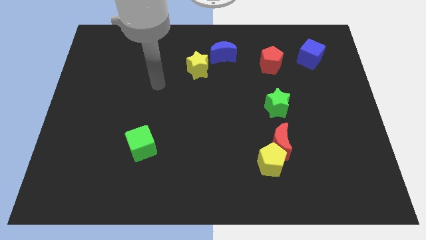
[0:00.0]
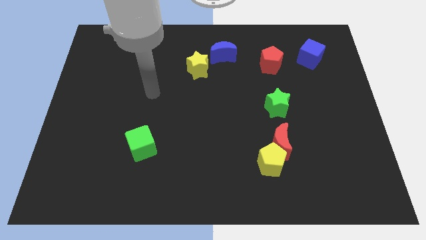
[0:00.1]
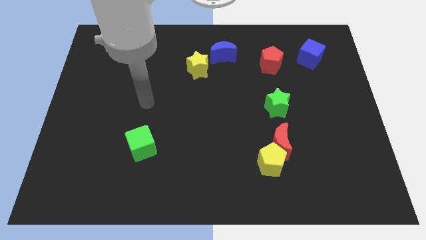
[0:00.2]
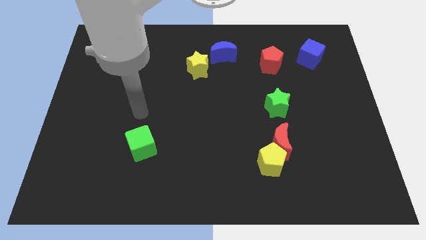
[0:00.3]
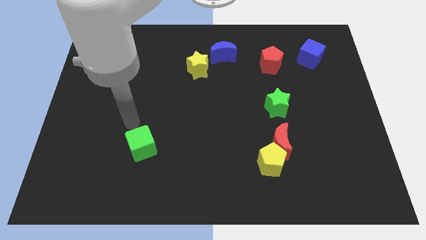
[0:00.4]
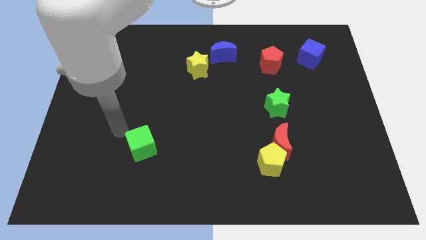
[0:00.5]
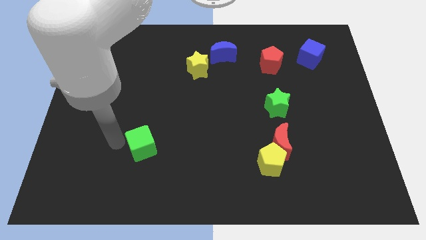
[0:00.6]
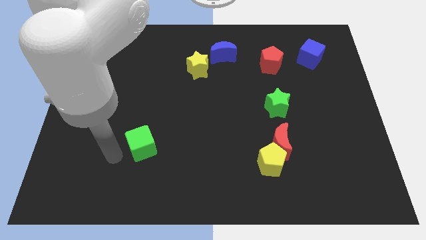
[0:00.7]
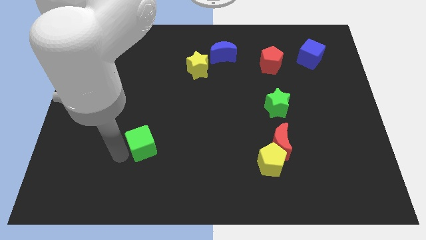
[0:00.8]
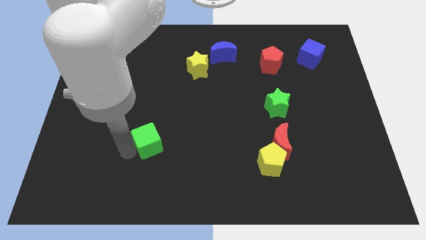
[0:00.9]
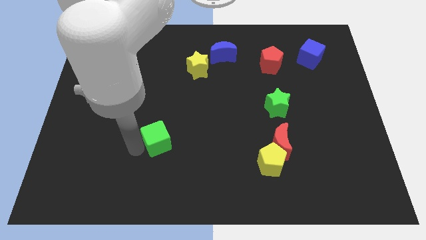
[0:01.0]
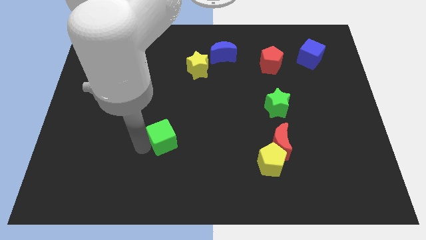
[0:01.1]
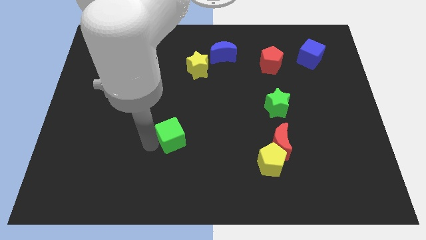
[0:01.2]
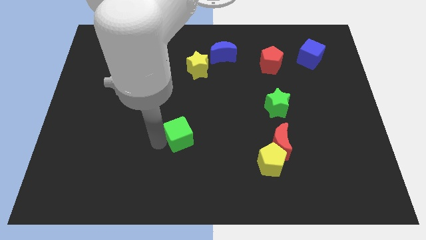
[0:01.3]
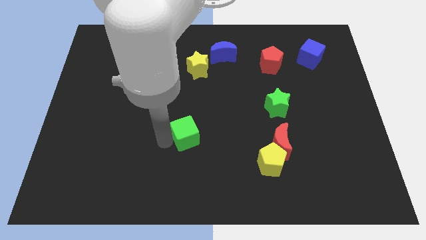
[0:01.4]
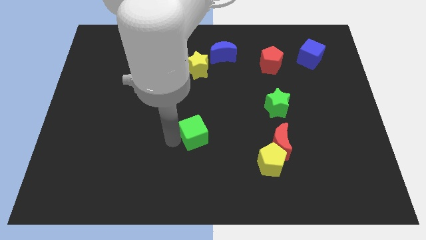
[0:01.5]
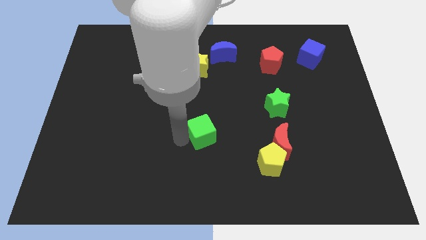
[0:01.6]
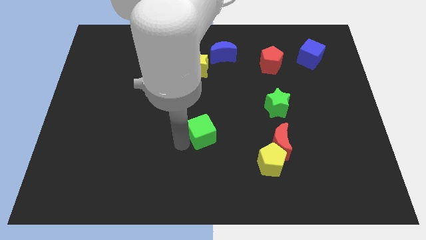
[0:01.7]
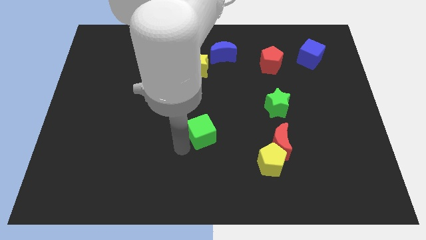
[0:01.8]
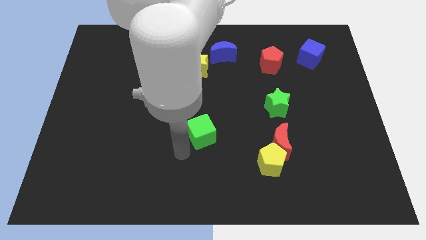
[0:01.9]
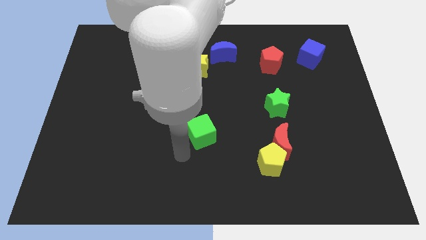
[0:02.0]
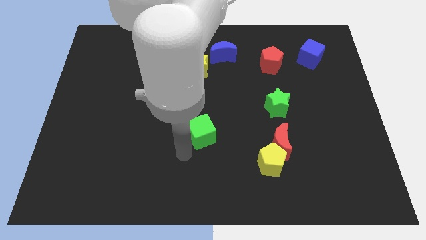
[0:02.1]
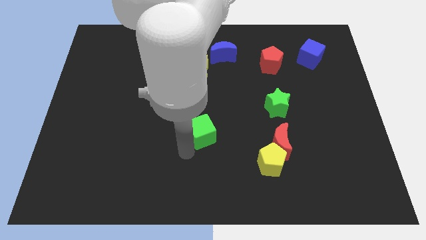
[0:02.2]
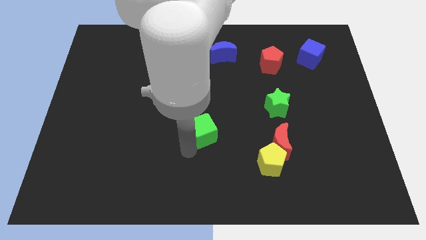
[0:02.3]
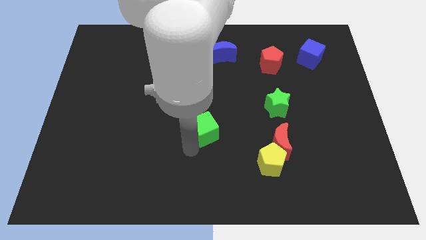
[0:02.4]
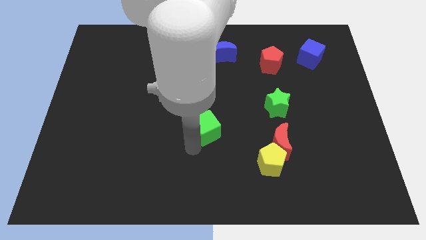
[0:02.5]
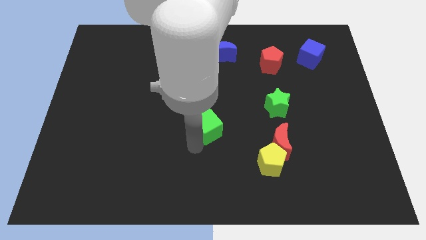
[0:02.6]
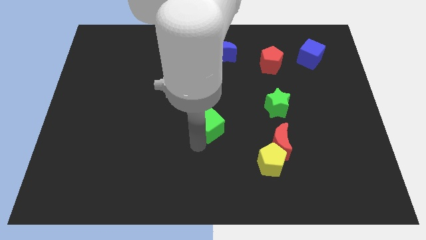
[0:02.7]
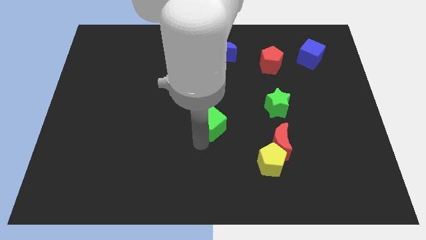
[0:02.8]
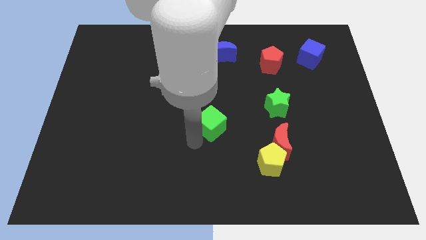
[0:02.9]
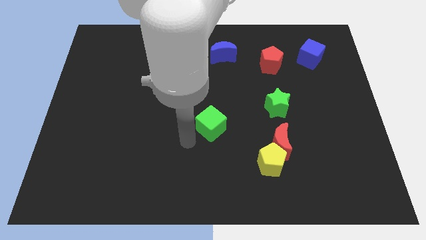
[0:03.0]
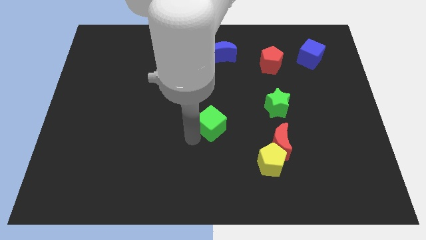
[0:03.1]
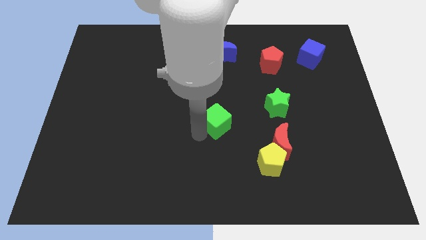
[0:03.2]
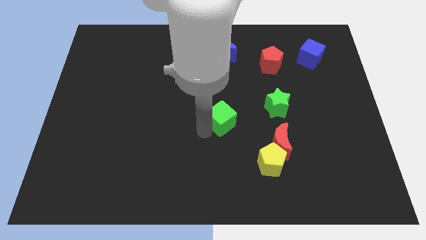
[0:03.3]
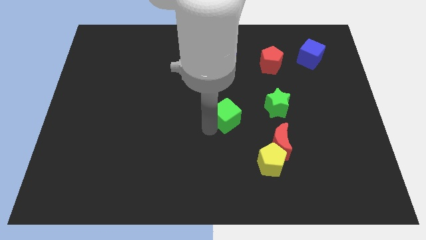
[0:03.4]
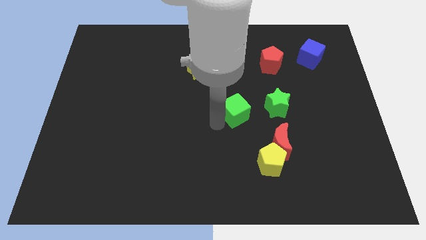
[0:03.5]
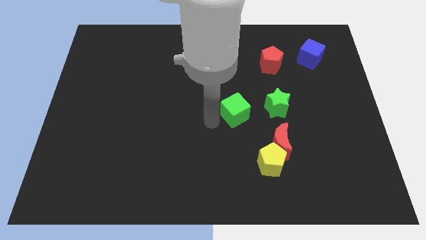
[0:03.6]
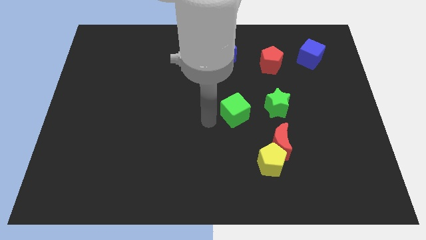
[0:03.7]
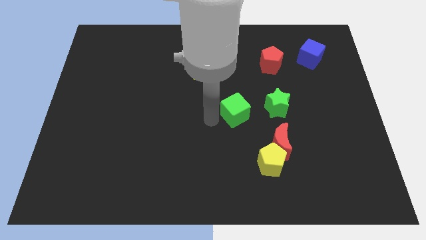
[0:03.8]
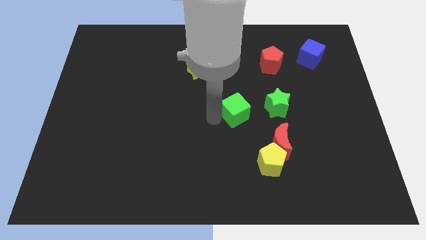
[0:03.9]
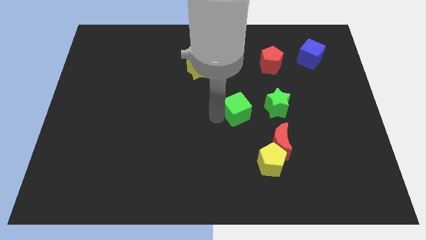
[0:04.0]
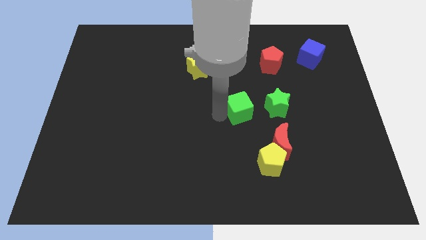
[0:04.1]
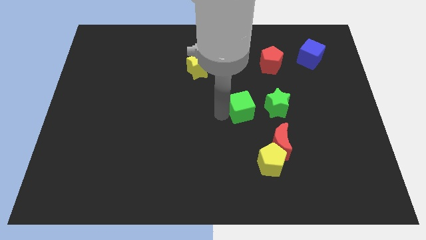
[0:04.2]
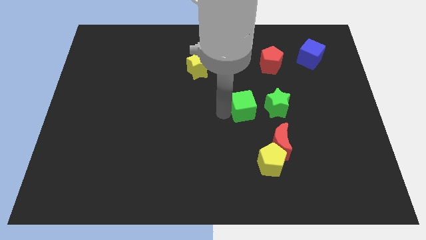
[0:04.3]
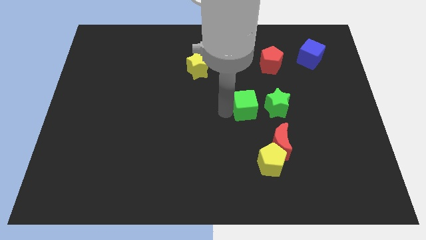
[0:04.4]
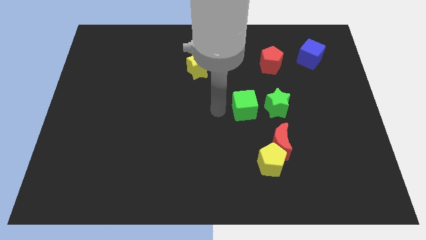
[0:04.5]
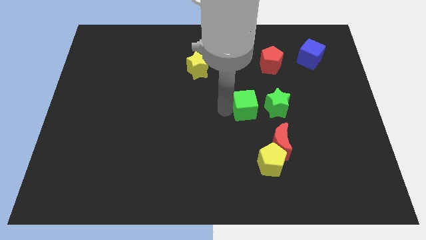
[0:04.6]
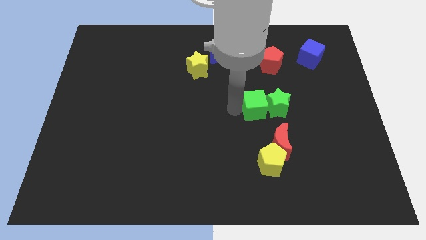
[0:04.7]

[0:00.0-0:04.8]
move the green cube close to the green star

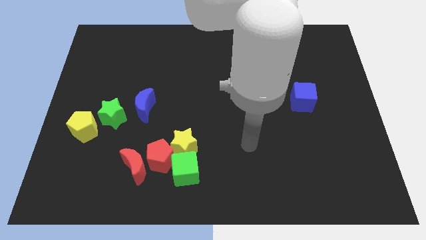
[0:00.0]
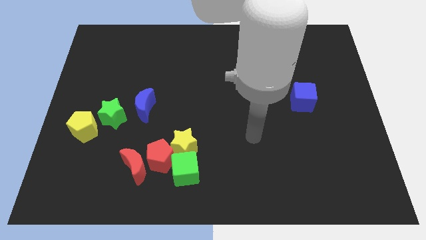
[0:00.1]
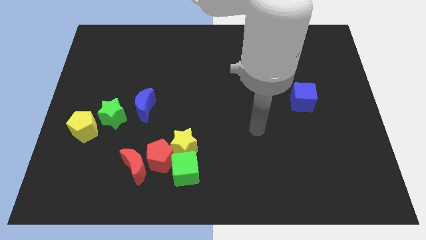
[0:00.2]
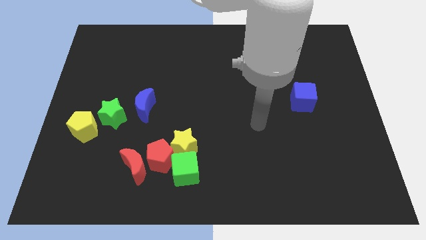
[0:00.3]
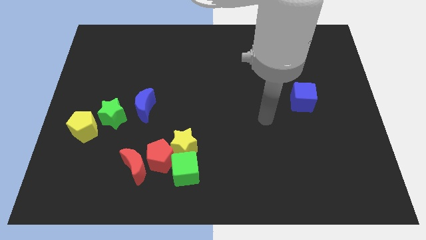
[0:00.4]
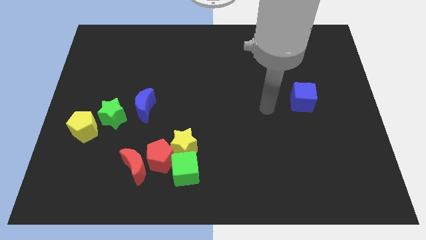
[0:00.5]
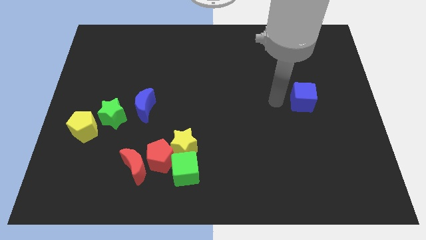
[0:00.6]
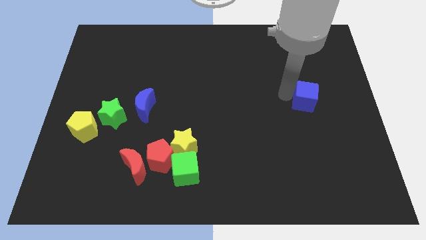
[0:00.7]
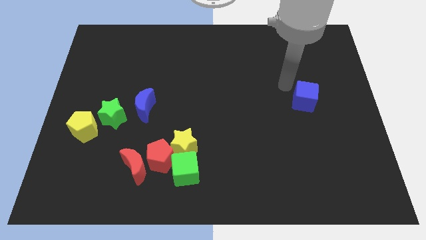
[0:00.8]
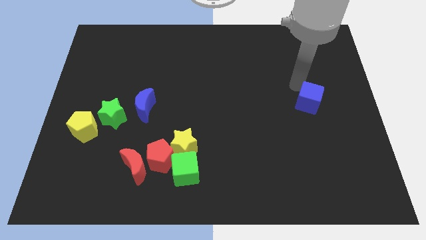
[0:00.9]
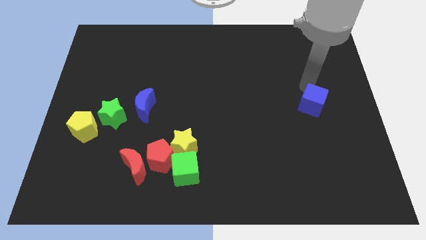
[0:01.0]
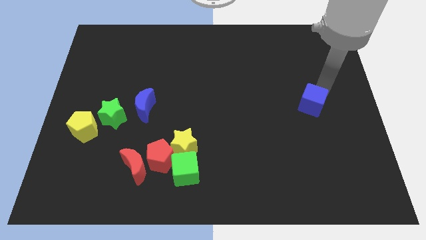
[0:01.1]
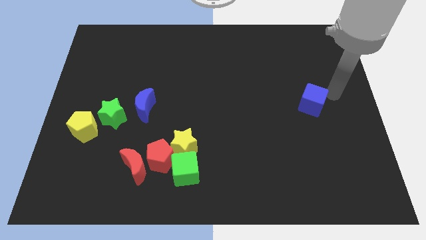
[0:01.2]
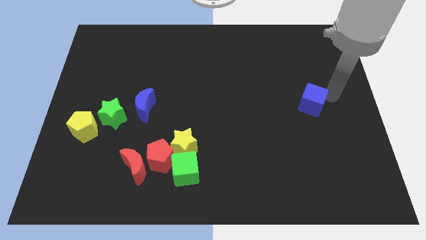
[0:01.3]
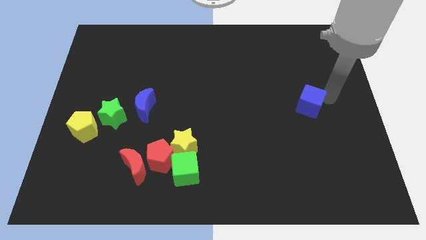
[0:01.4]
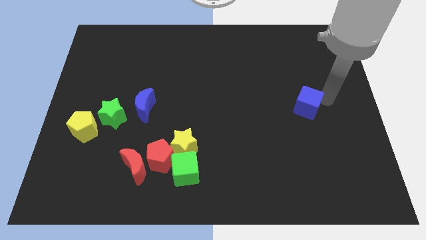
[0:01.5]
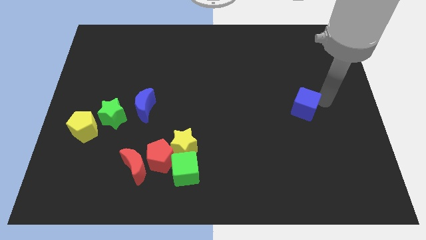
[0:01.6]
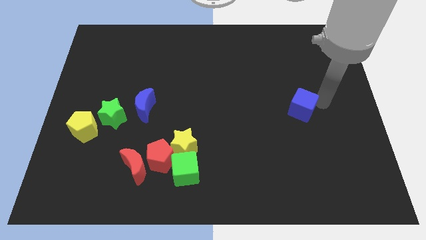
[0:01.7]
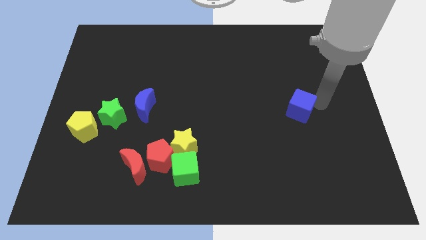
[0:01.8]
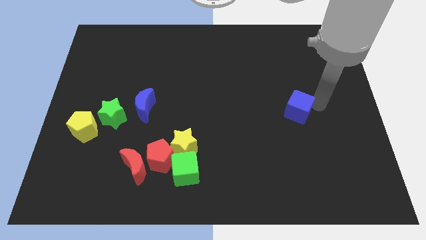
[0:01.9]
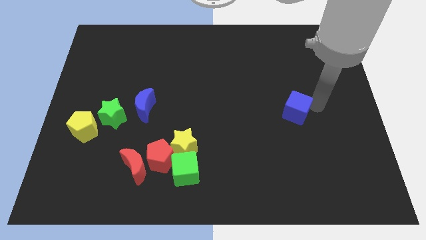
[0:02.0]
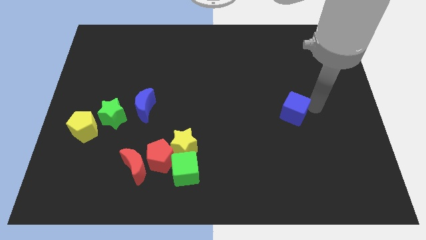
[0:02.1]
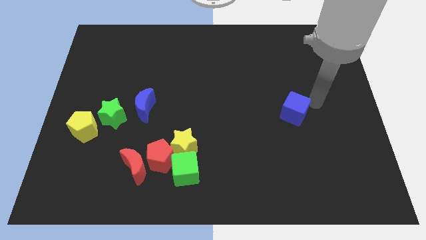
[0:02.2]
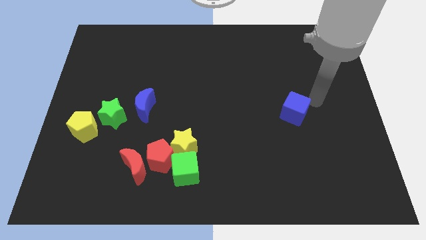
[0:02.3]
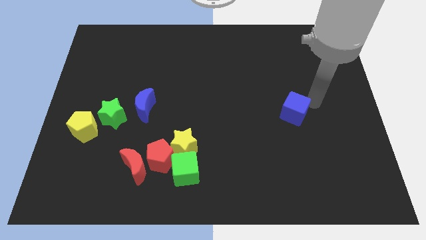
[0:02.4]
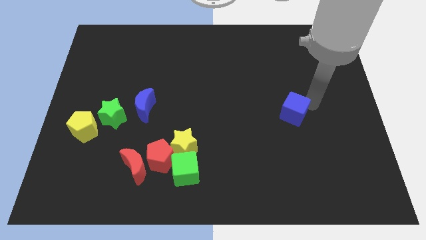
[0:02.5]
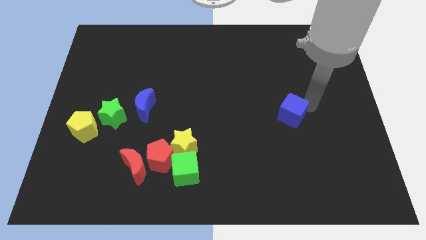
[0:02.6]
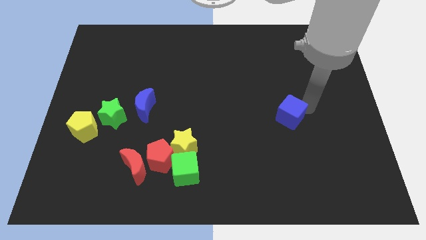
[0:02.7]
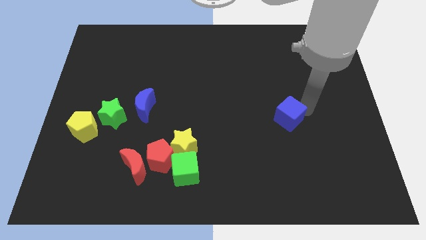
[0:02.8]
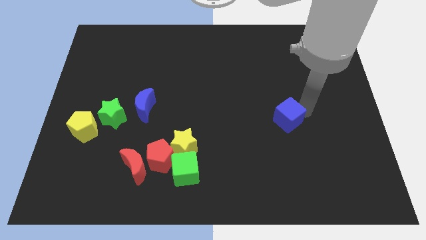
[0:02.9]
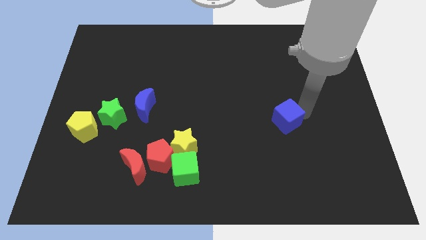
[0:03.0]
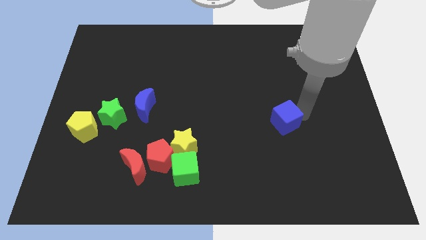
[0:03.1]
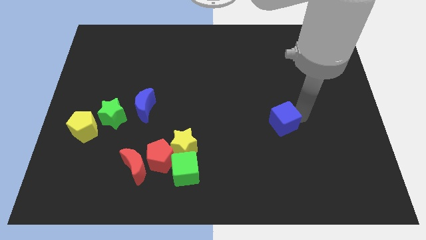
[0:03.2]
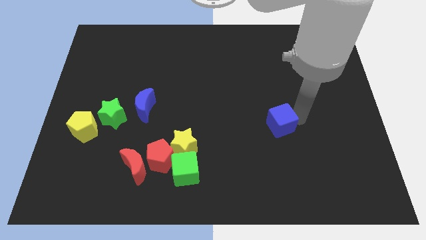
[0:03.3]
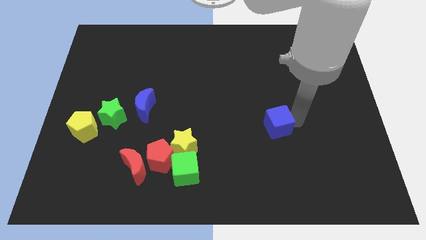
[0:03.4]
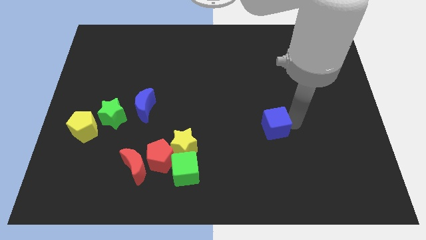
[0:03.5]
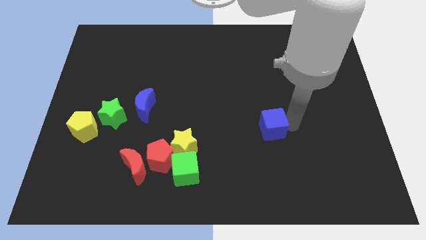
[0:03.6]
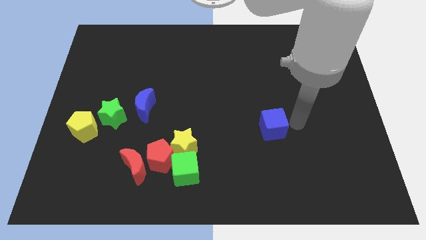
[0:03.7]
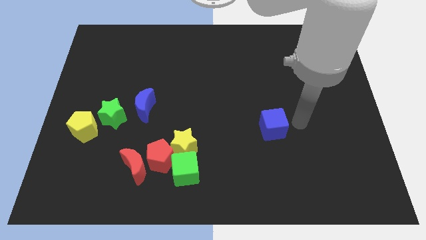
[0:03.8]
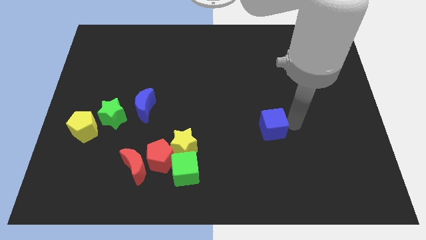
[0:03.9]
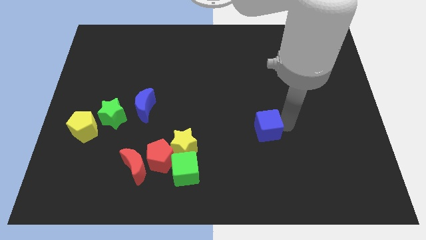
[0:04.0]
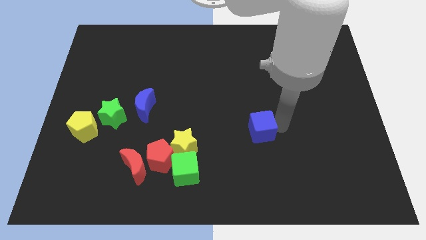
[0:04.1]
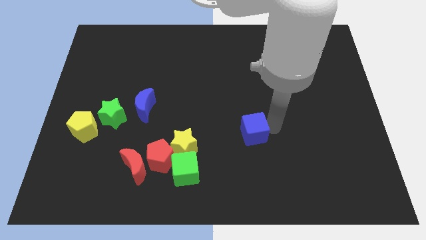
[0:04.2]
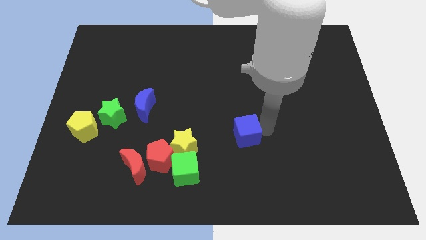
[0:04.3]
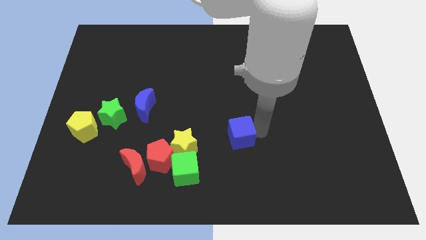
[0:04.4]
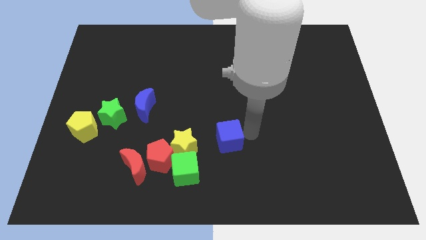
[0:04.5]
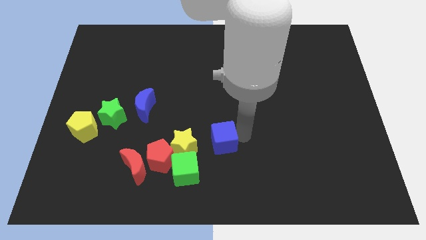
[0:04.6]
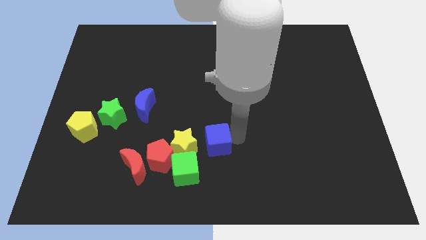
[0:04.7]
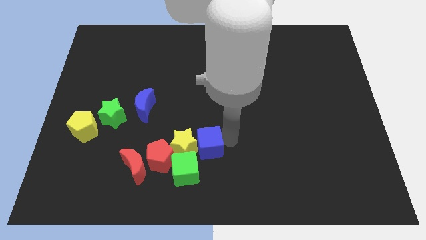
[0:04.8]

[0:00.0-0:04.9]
slide the blue cube to the yellow star
